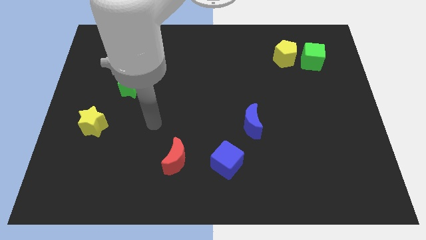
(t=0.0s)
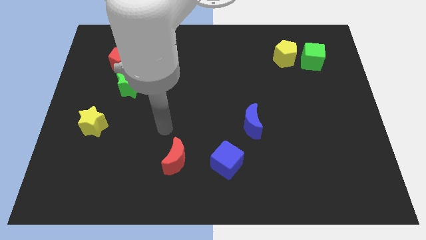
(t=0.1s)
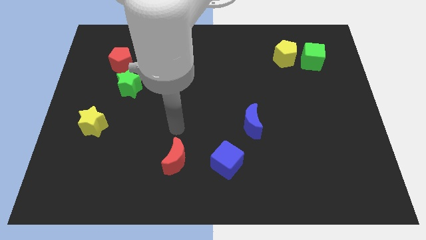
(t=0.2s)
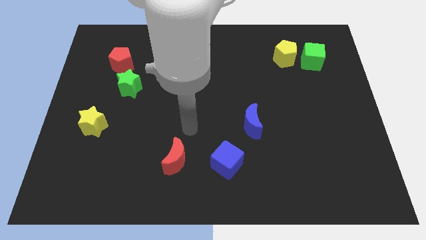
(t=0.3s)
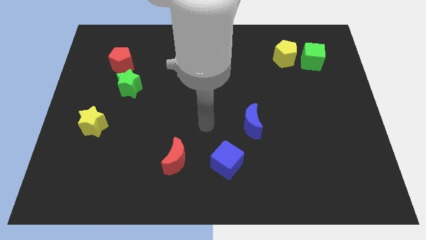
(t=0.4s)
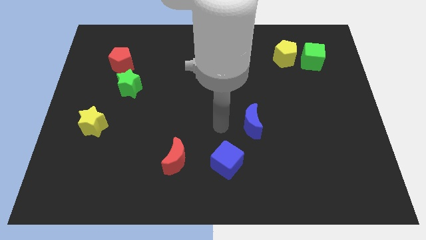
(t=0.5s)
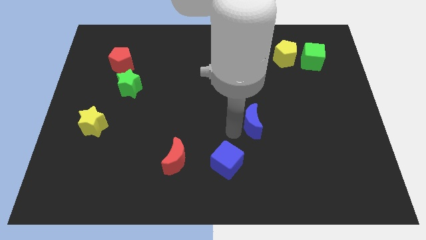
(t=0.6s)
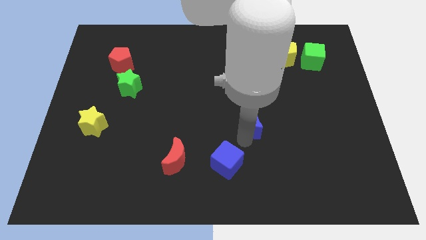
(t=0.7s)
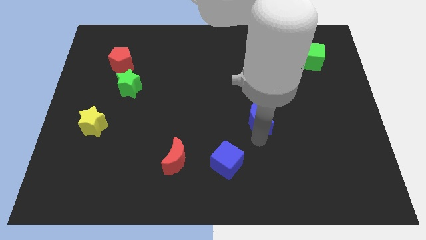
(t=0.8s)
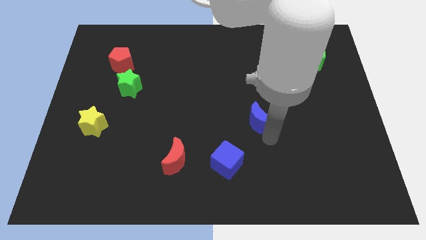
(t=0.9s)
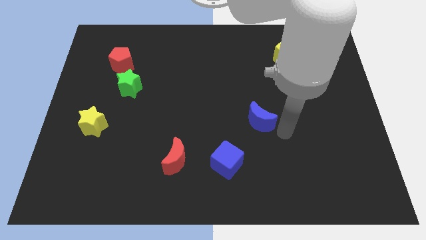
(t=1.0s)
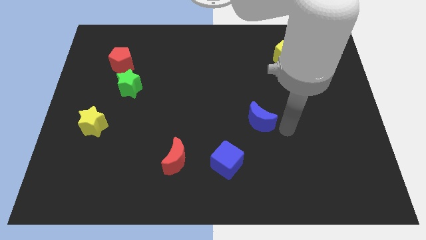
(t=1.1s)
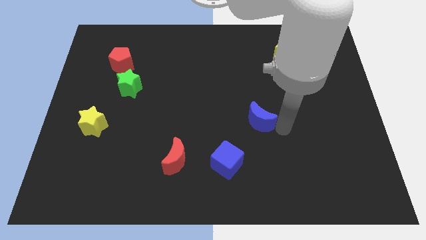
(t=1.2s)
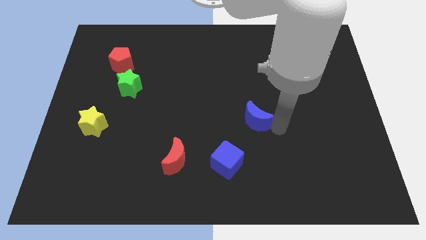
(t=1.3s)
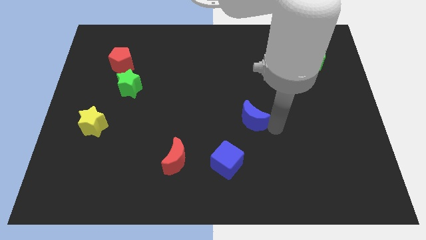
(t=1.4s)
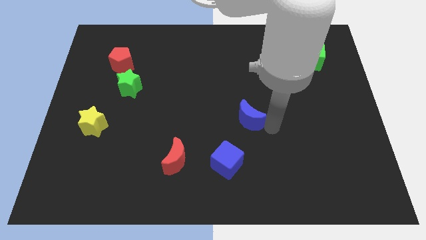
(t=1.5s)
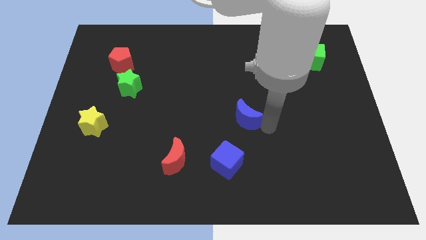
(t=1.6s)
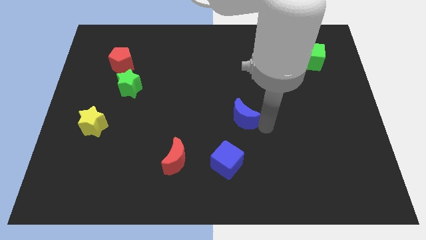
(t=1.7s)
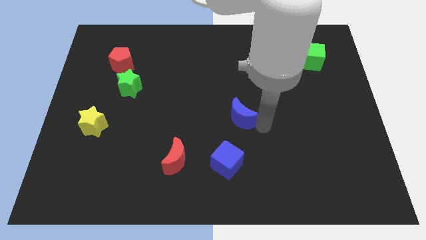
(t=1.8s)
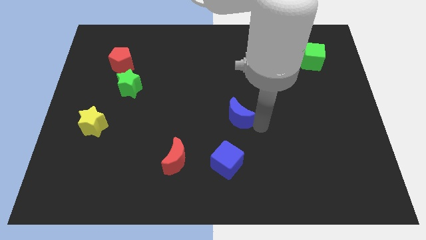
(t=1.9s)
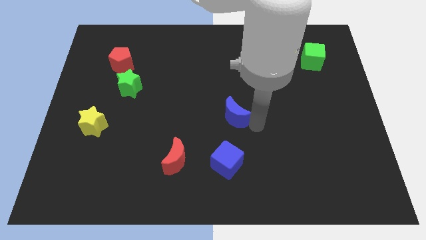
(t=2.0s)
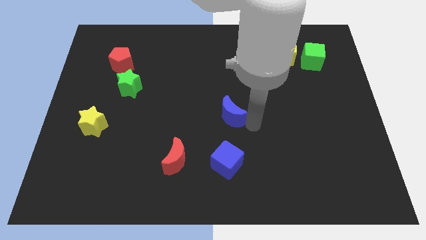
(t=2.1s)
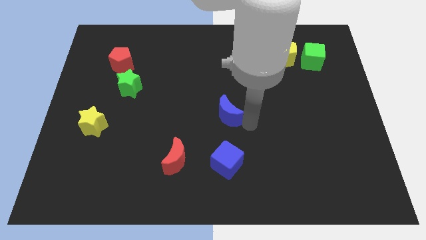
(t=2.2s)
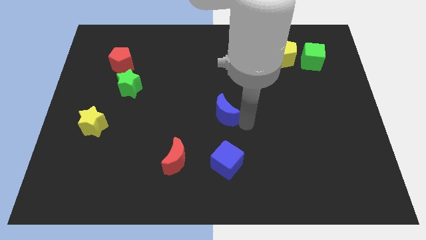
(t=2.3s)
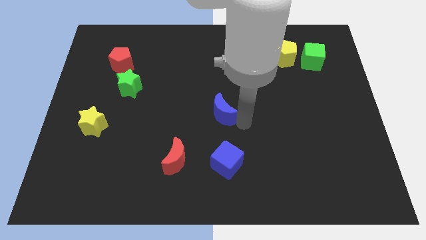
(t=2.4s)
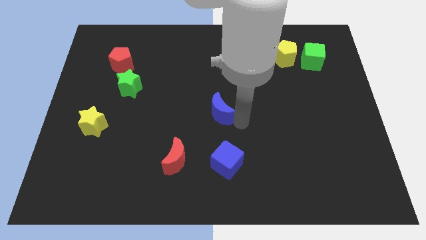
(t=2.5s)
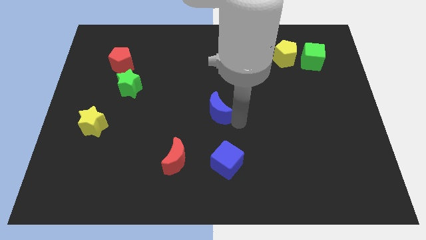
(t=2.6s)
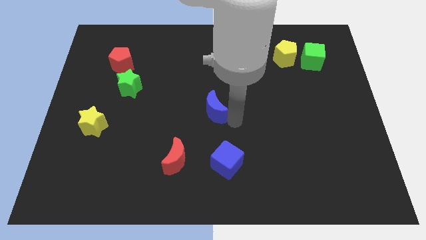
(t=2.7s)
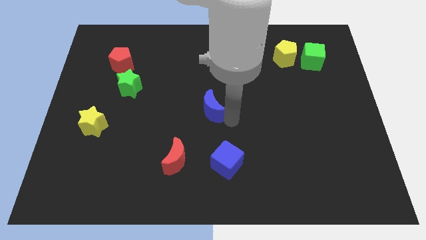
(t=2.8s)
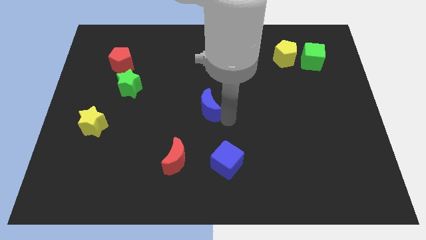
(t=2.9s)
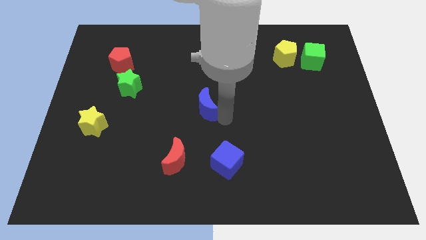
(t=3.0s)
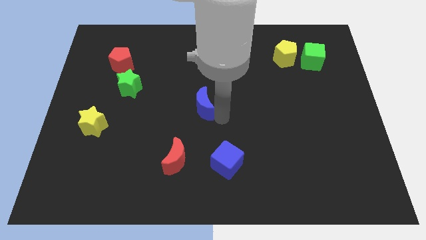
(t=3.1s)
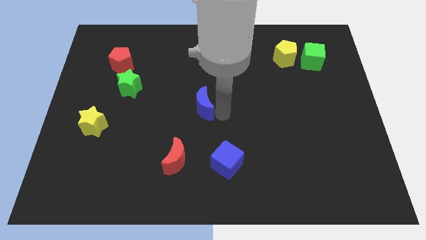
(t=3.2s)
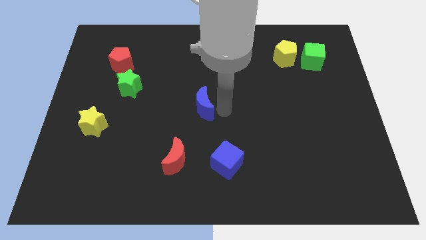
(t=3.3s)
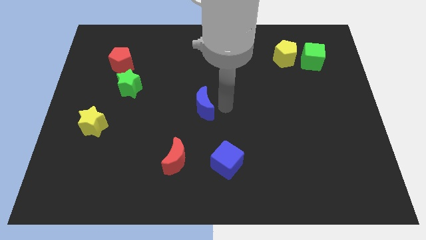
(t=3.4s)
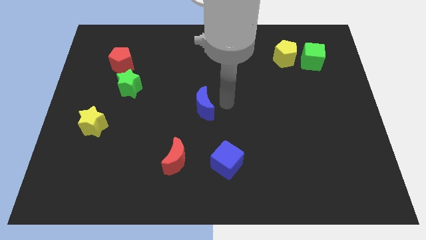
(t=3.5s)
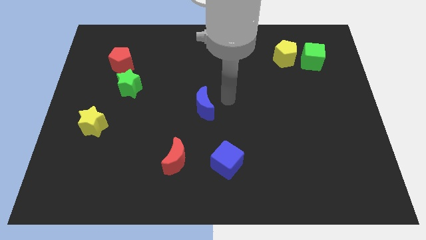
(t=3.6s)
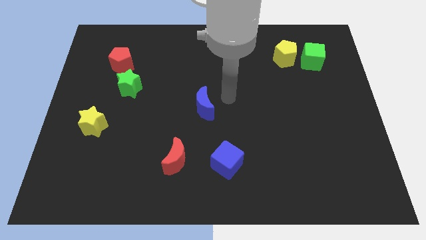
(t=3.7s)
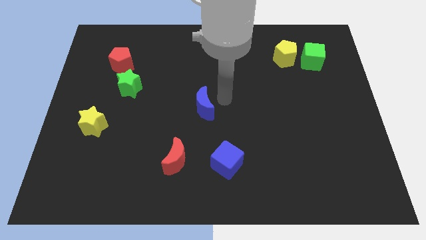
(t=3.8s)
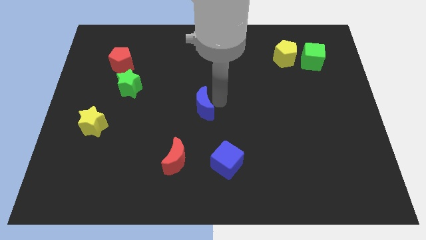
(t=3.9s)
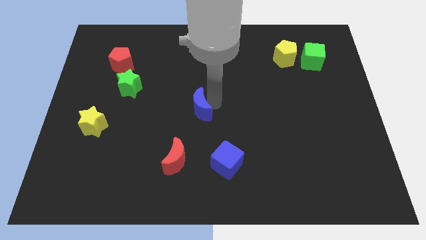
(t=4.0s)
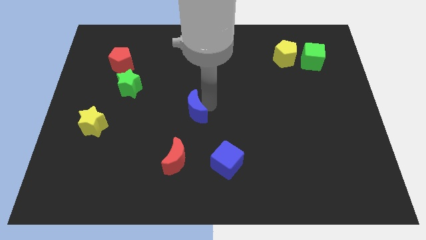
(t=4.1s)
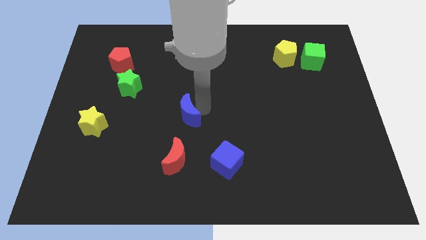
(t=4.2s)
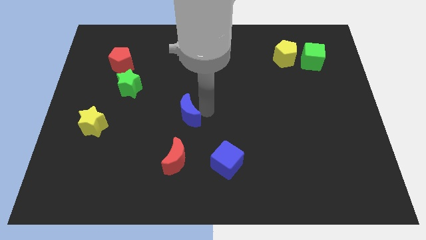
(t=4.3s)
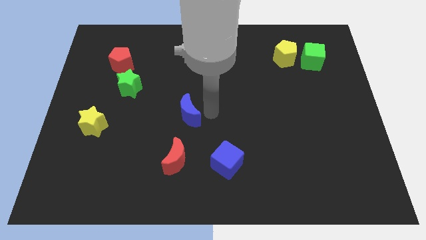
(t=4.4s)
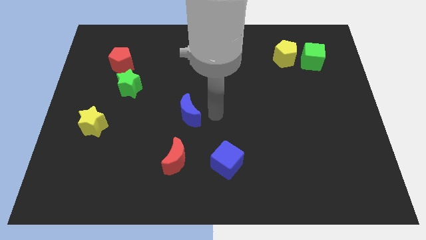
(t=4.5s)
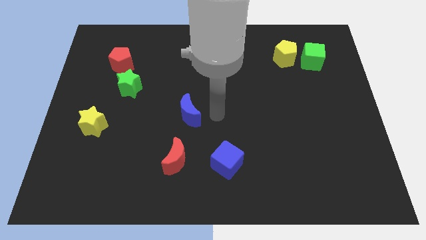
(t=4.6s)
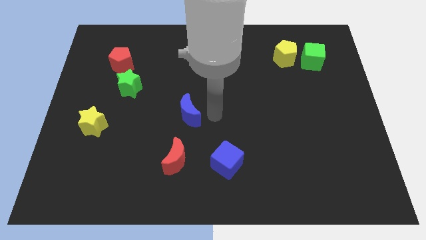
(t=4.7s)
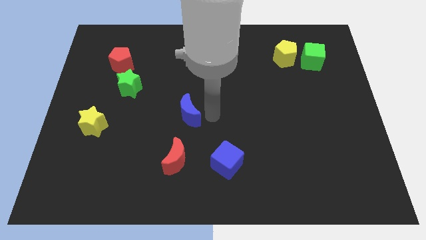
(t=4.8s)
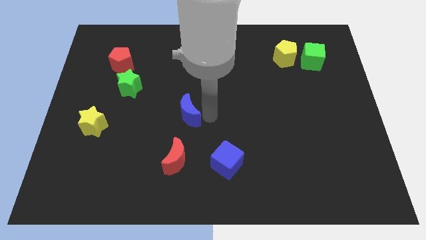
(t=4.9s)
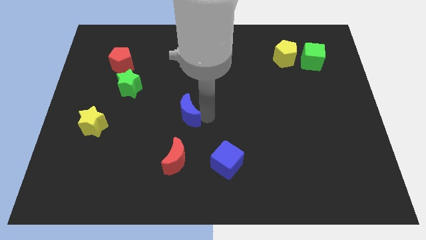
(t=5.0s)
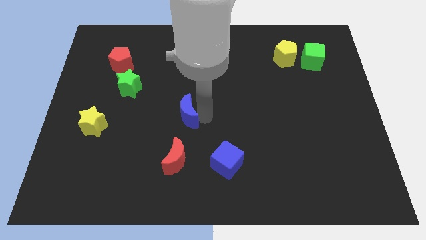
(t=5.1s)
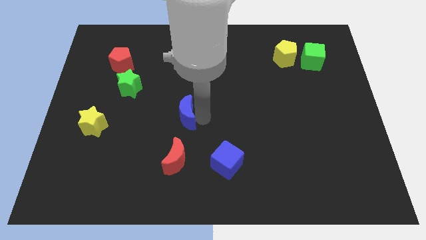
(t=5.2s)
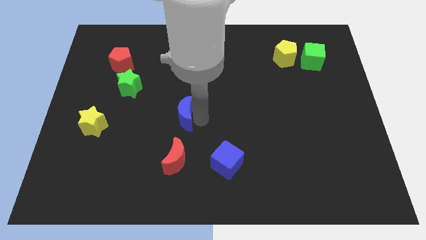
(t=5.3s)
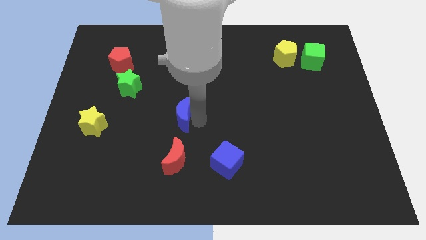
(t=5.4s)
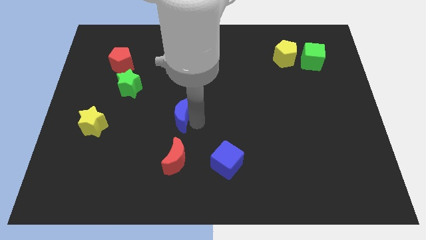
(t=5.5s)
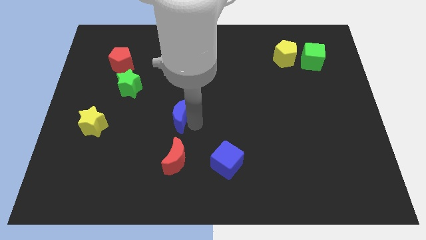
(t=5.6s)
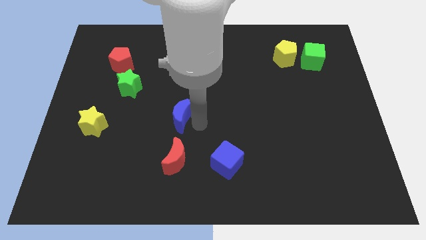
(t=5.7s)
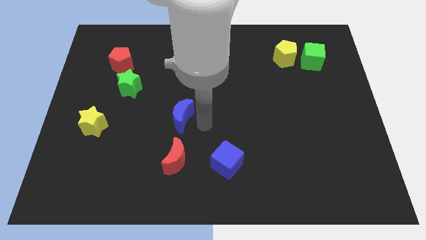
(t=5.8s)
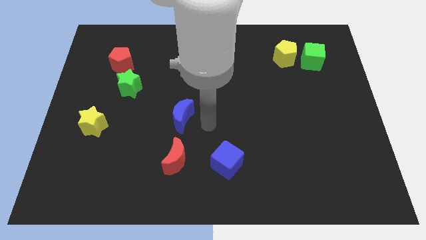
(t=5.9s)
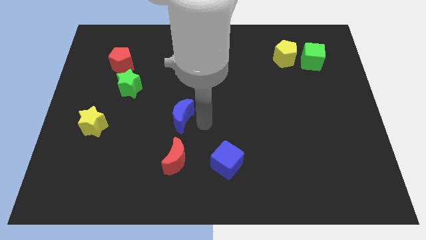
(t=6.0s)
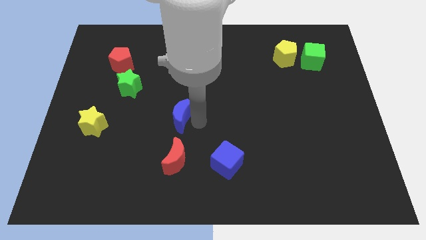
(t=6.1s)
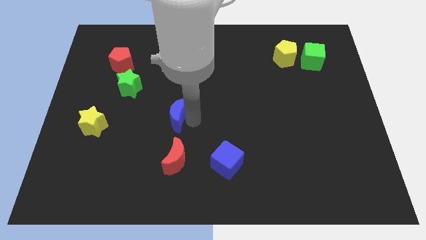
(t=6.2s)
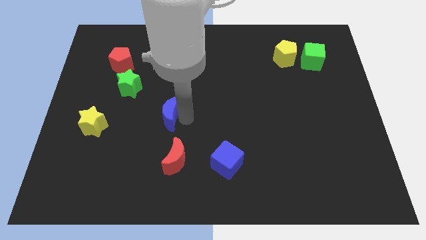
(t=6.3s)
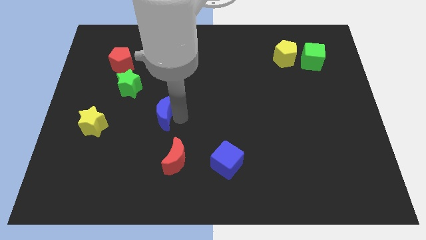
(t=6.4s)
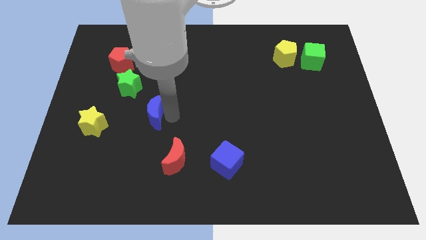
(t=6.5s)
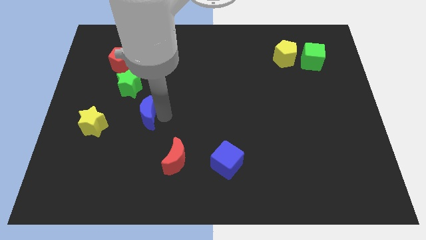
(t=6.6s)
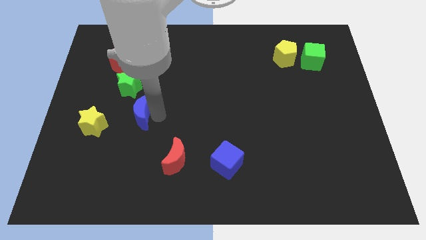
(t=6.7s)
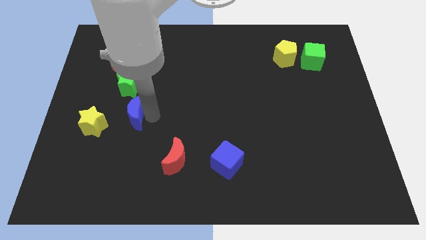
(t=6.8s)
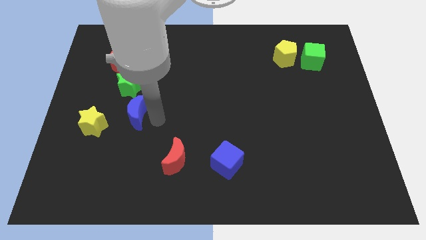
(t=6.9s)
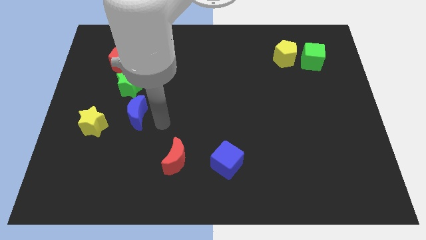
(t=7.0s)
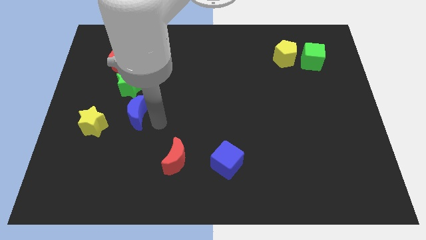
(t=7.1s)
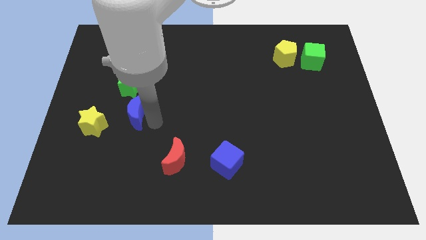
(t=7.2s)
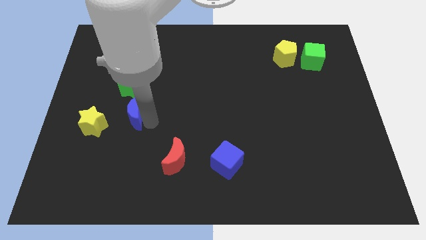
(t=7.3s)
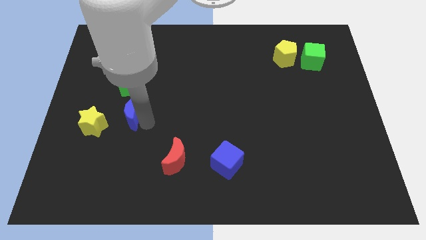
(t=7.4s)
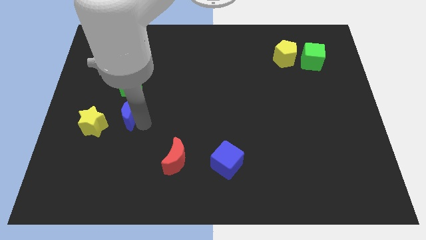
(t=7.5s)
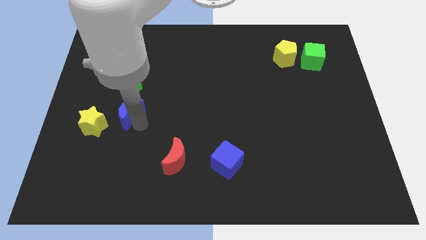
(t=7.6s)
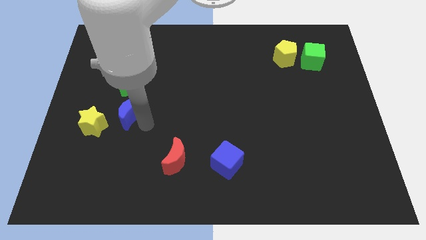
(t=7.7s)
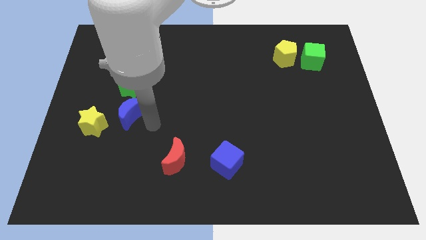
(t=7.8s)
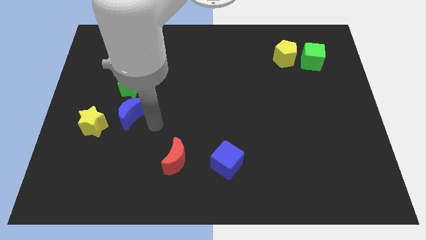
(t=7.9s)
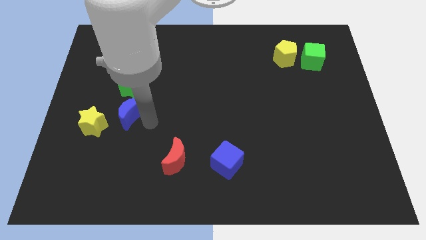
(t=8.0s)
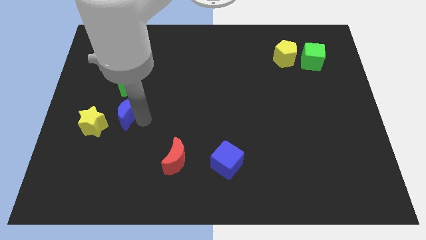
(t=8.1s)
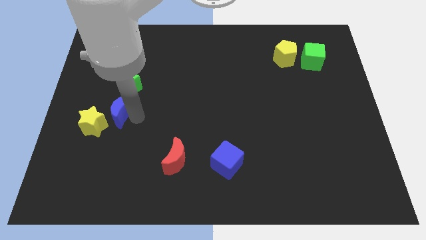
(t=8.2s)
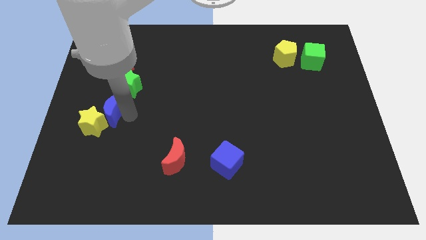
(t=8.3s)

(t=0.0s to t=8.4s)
push the blue moon diagonally down and to the left of the green star
